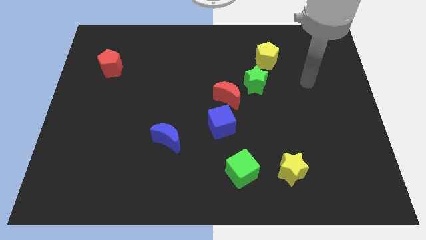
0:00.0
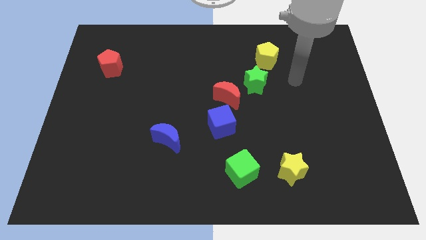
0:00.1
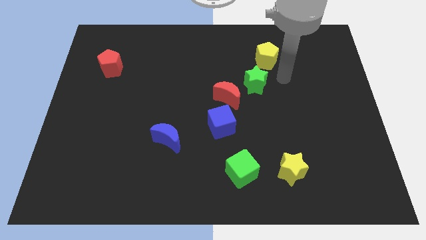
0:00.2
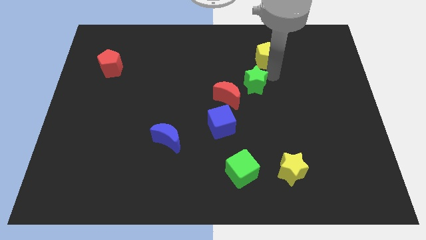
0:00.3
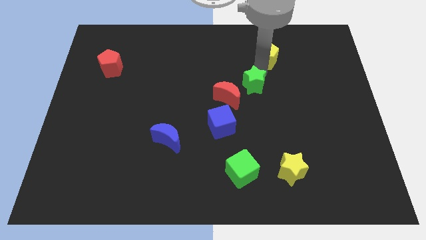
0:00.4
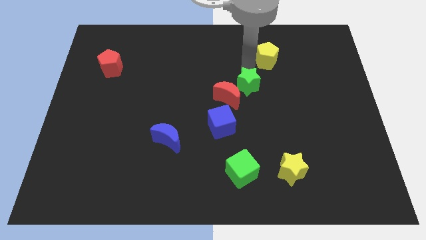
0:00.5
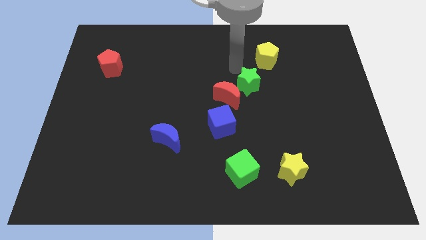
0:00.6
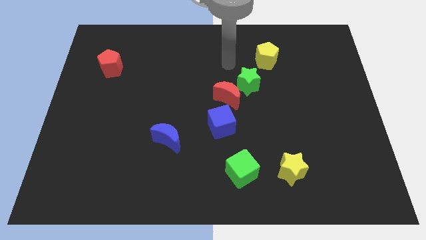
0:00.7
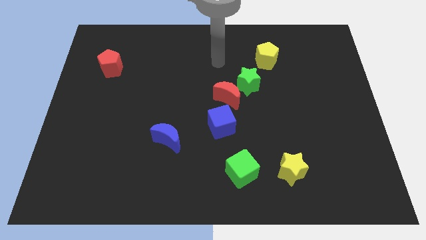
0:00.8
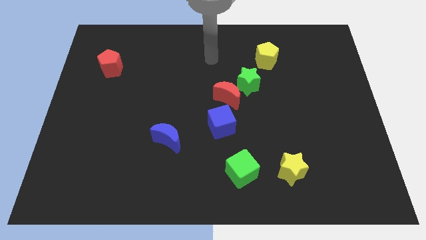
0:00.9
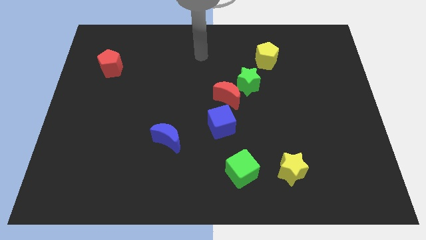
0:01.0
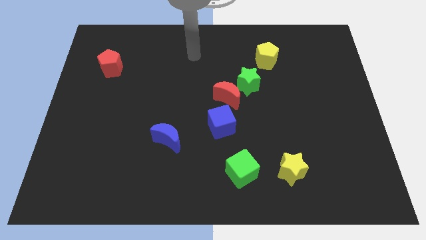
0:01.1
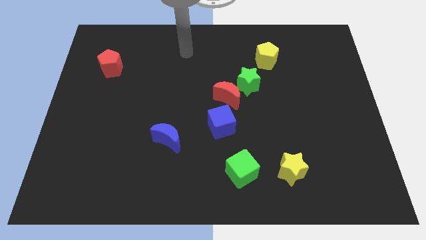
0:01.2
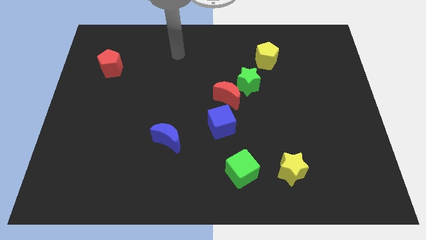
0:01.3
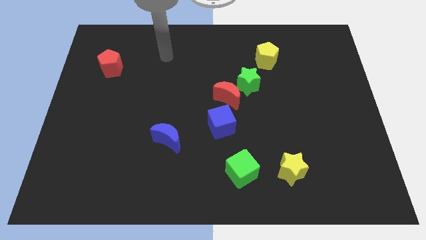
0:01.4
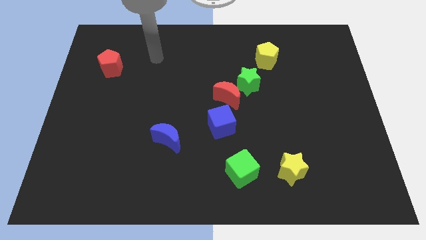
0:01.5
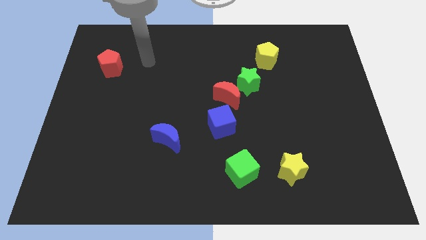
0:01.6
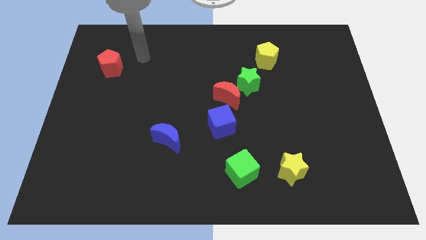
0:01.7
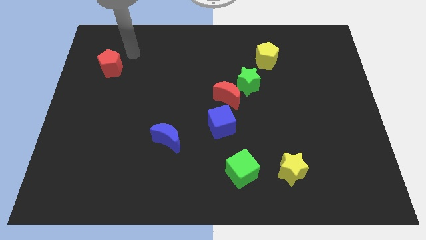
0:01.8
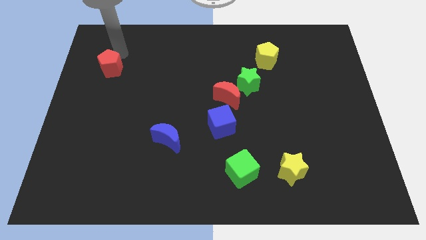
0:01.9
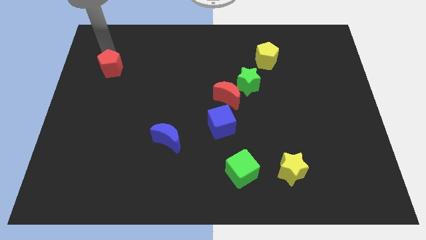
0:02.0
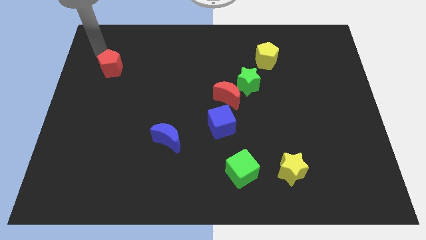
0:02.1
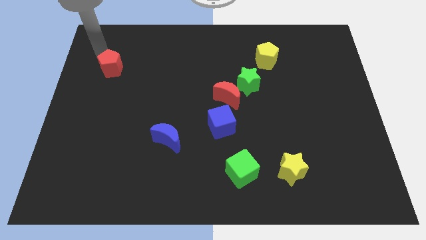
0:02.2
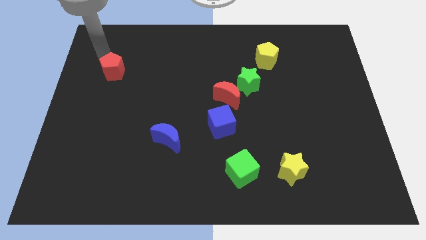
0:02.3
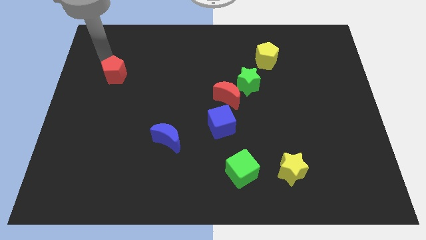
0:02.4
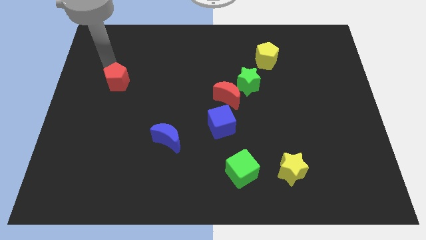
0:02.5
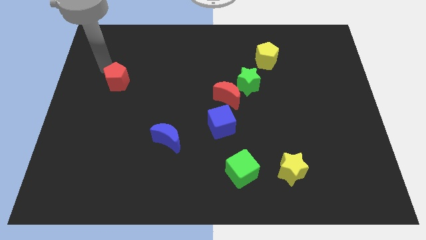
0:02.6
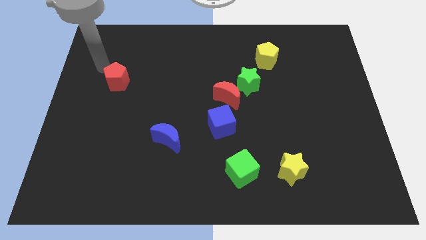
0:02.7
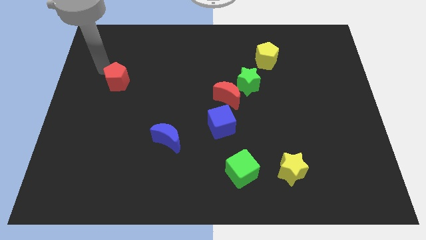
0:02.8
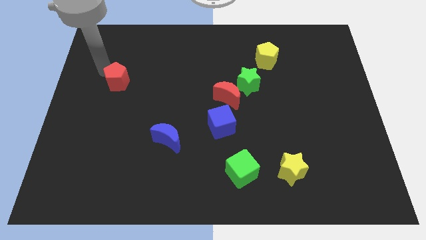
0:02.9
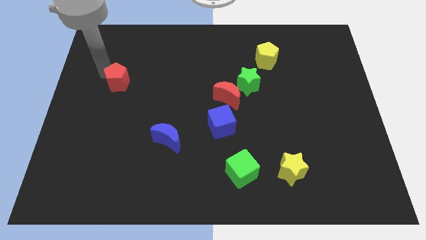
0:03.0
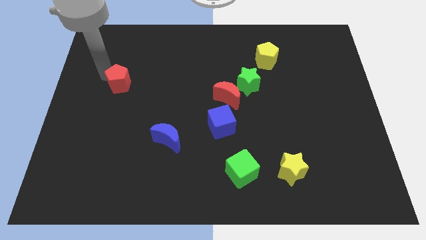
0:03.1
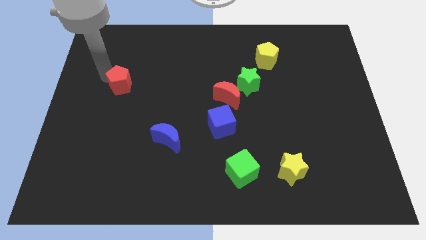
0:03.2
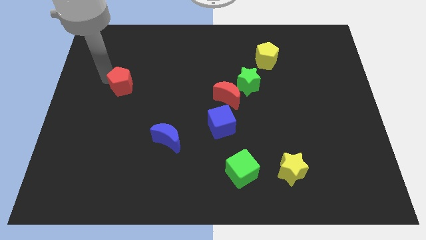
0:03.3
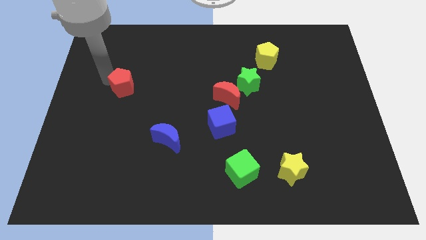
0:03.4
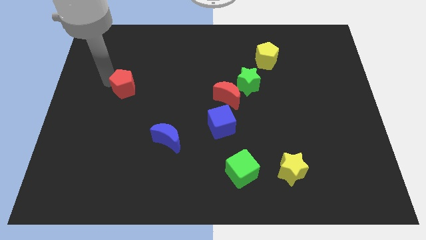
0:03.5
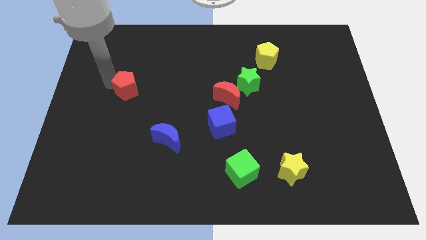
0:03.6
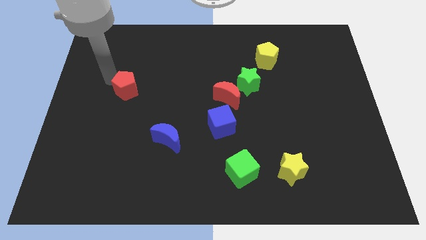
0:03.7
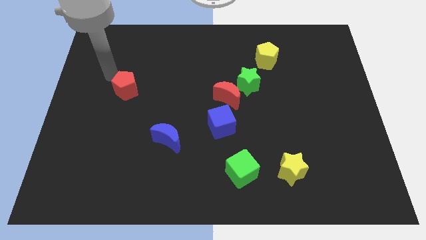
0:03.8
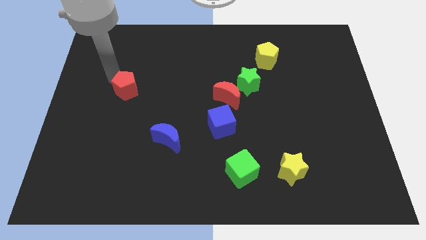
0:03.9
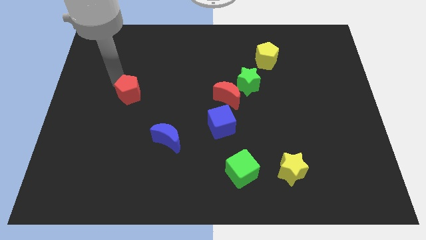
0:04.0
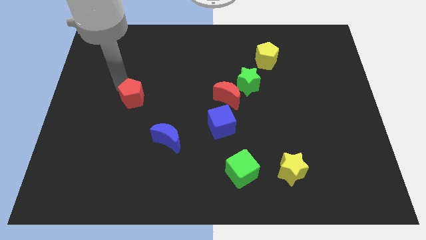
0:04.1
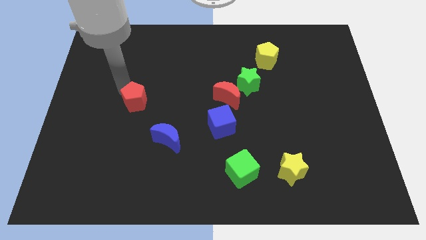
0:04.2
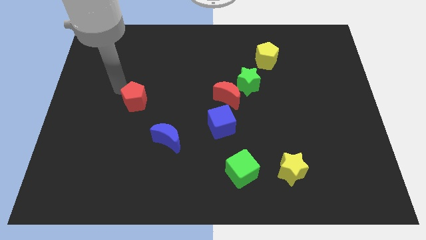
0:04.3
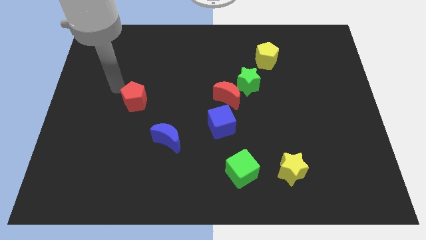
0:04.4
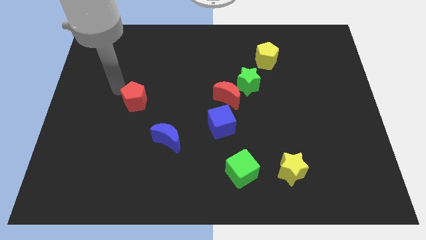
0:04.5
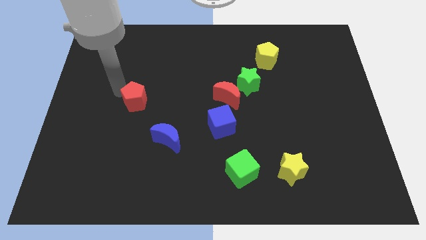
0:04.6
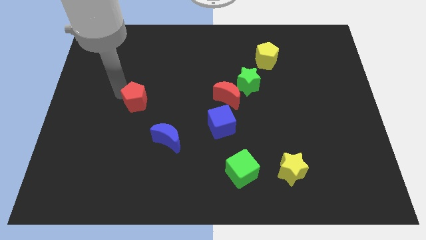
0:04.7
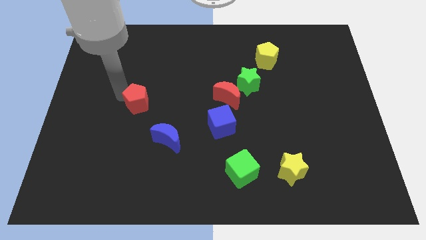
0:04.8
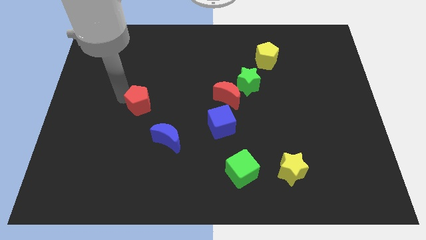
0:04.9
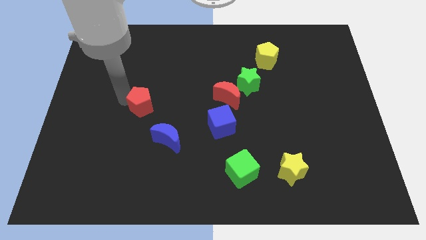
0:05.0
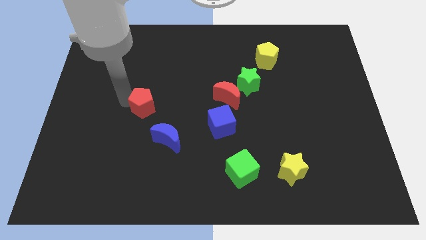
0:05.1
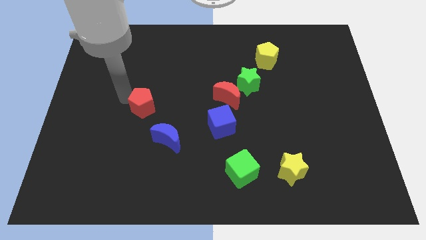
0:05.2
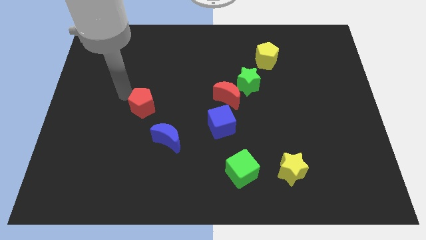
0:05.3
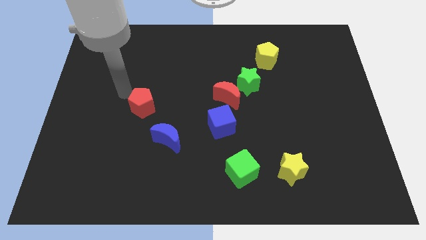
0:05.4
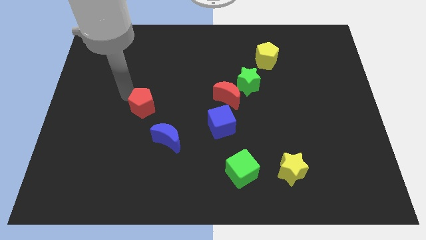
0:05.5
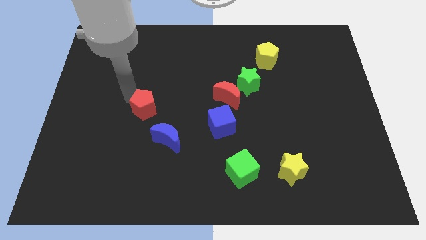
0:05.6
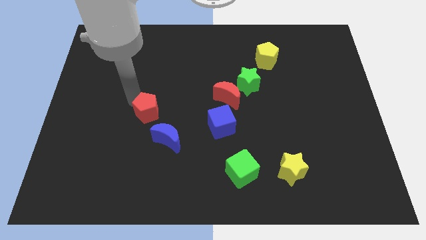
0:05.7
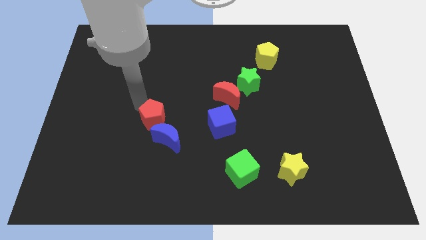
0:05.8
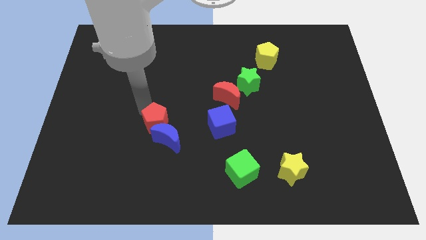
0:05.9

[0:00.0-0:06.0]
slide the red pentagon towards the blue moon
